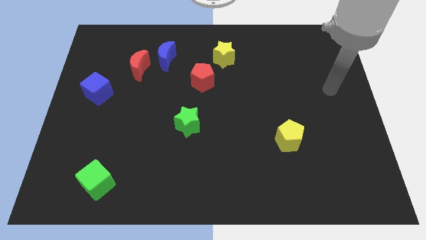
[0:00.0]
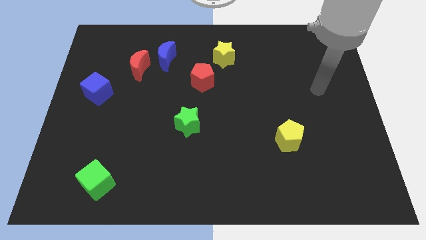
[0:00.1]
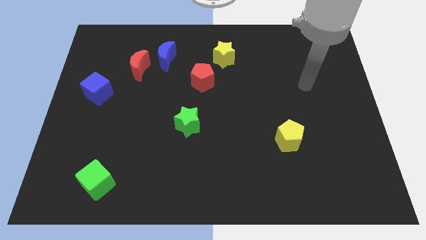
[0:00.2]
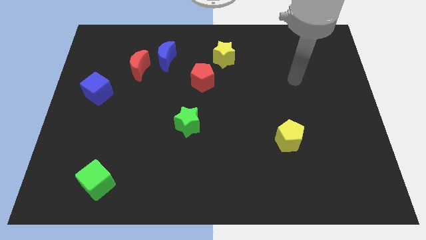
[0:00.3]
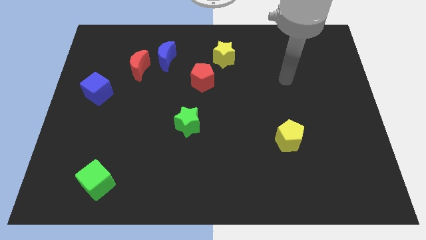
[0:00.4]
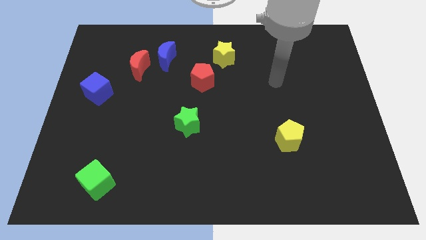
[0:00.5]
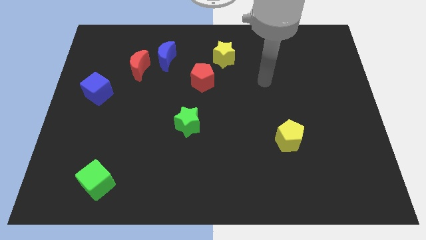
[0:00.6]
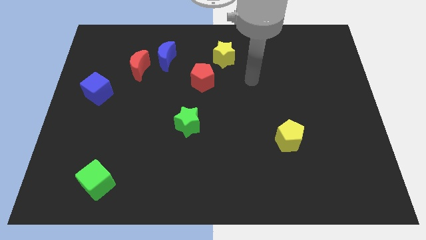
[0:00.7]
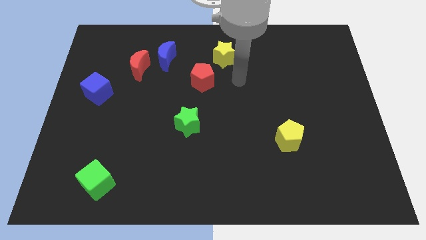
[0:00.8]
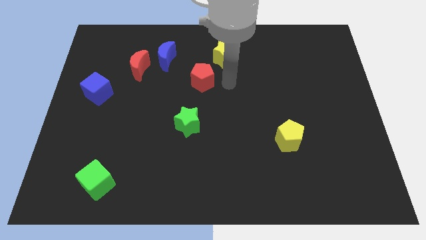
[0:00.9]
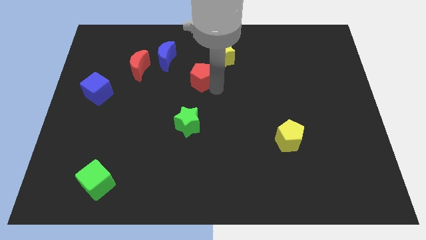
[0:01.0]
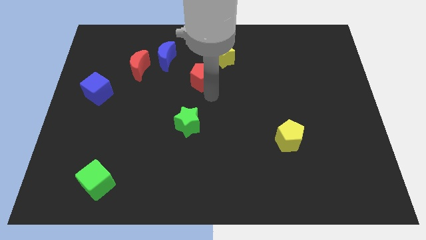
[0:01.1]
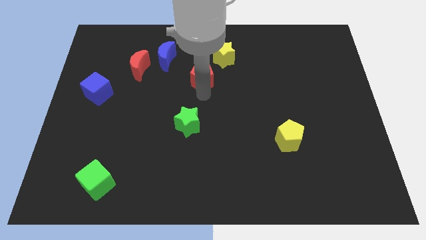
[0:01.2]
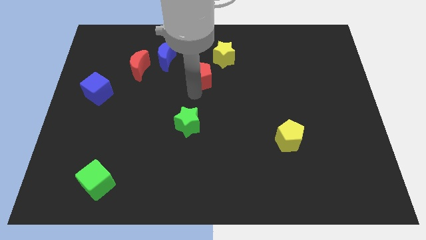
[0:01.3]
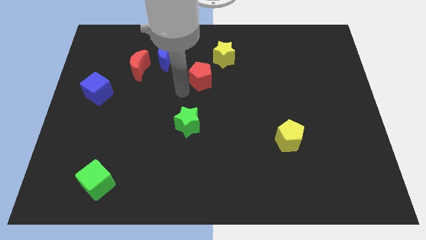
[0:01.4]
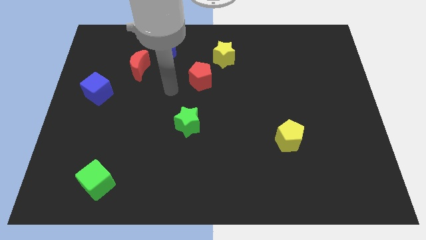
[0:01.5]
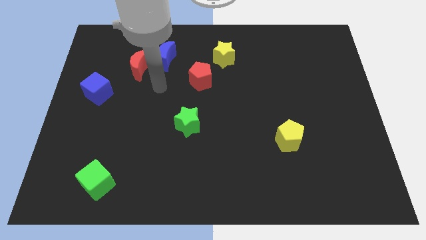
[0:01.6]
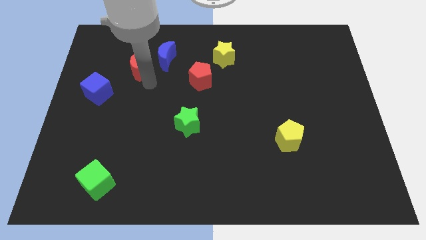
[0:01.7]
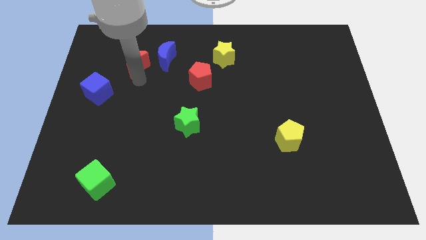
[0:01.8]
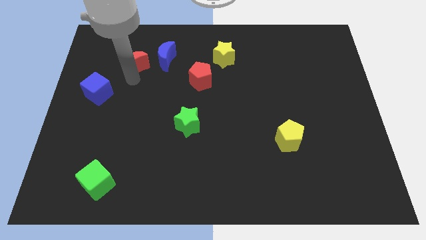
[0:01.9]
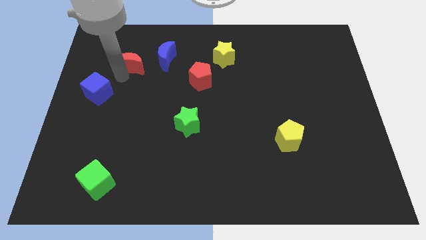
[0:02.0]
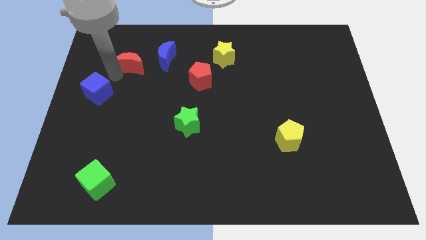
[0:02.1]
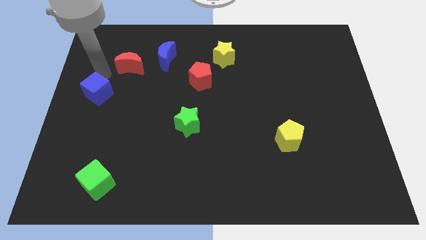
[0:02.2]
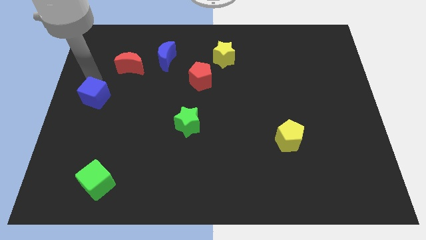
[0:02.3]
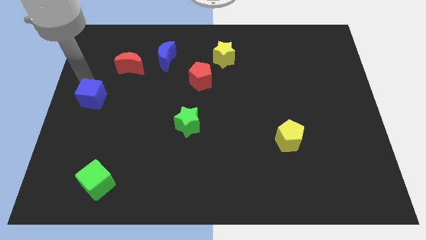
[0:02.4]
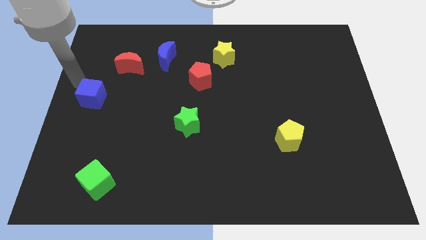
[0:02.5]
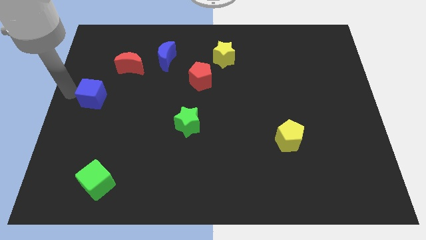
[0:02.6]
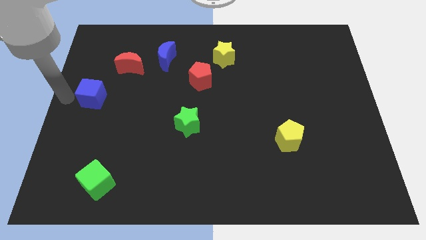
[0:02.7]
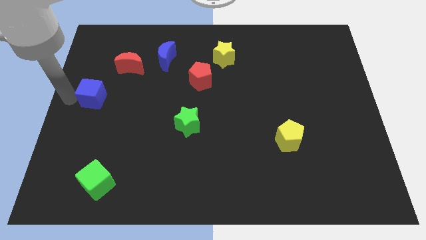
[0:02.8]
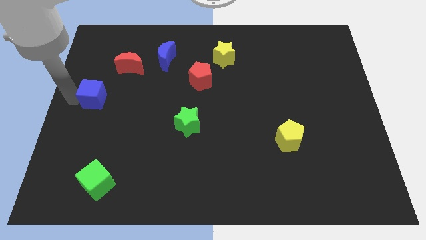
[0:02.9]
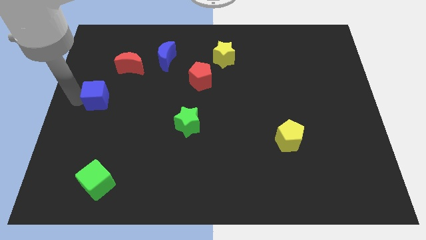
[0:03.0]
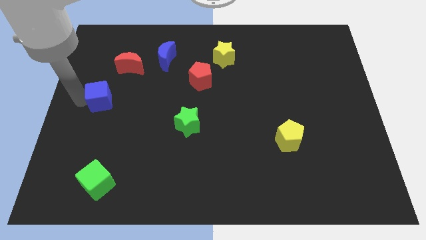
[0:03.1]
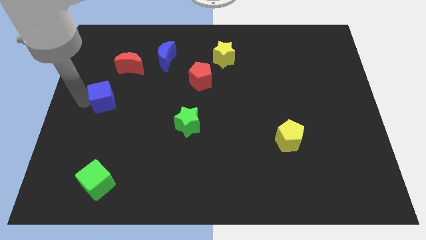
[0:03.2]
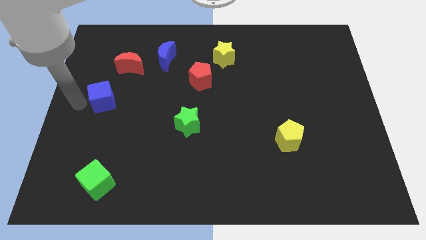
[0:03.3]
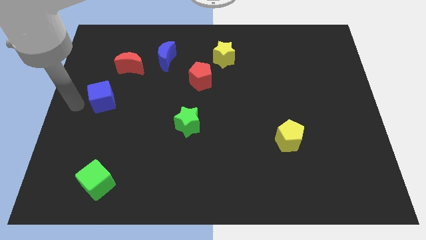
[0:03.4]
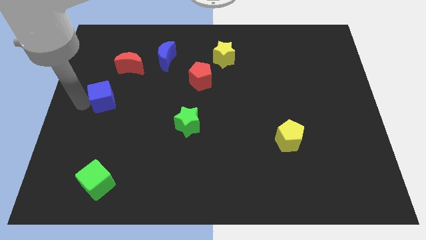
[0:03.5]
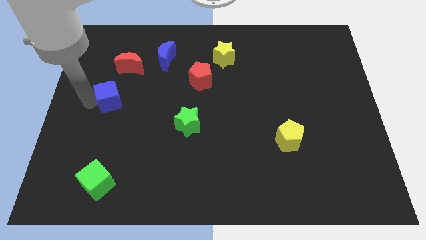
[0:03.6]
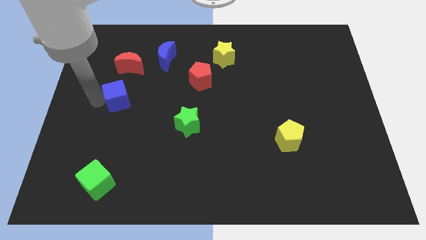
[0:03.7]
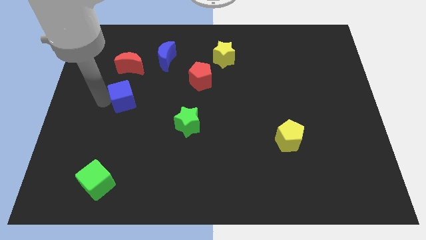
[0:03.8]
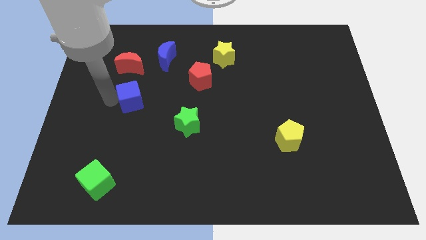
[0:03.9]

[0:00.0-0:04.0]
slightly push the blue cube right

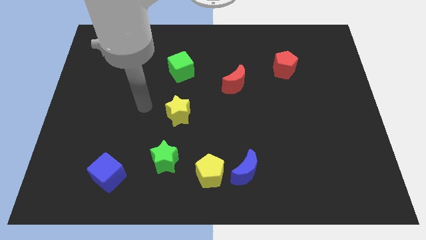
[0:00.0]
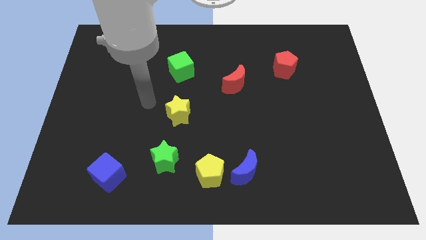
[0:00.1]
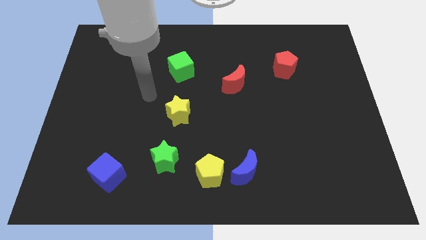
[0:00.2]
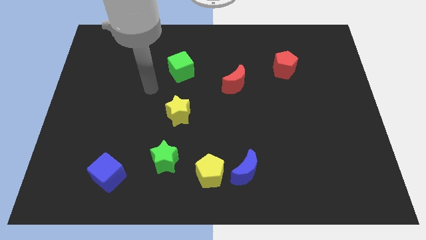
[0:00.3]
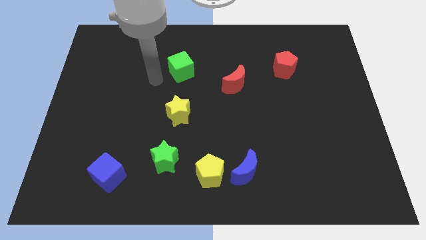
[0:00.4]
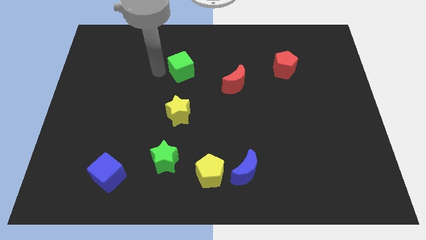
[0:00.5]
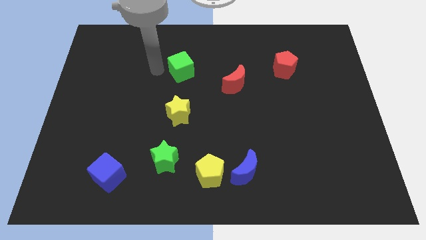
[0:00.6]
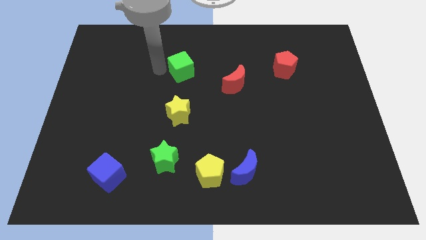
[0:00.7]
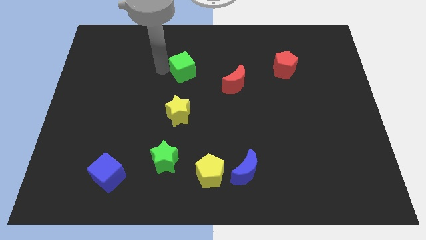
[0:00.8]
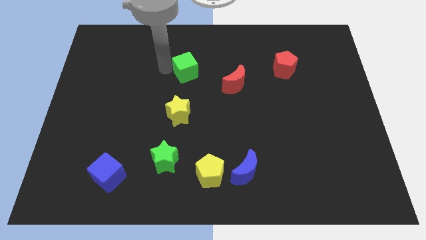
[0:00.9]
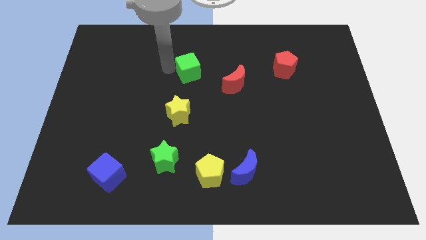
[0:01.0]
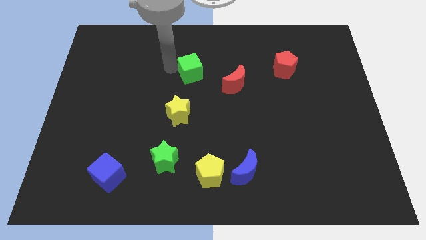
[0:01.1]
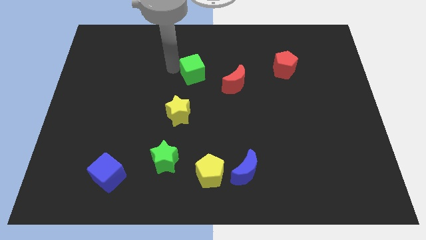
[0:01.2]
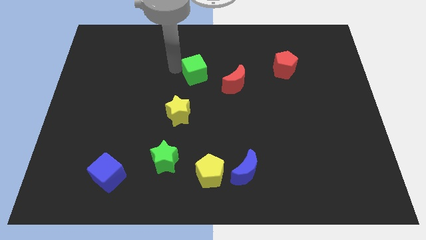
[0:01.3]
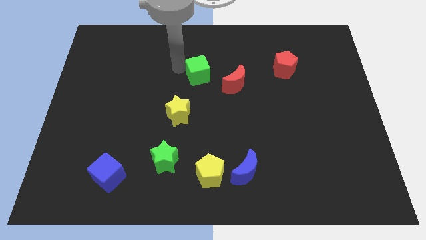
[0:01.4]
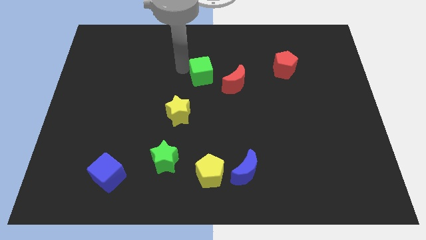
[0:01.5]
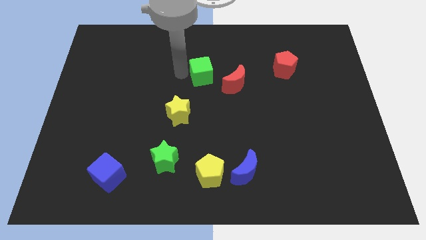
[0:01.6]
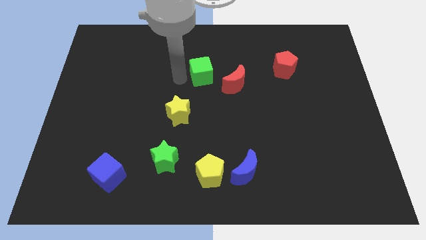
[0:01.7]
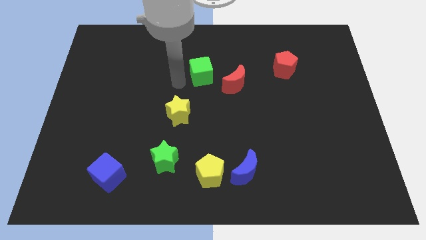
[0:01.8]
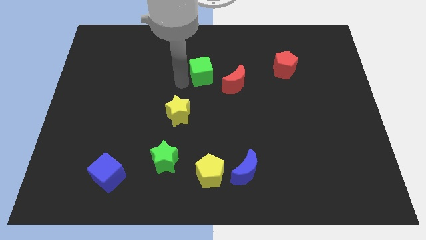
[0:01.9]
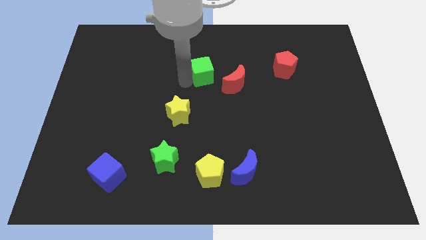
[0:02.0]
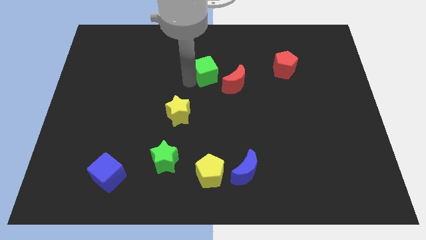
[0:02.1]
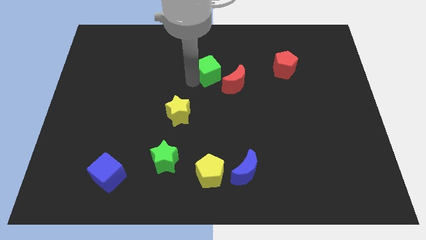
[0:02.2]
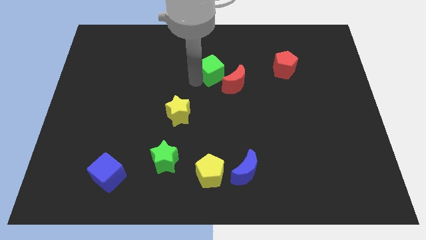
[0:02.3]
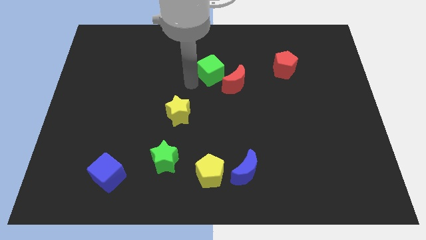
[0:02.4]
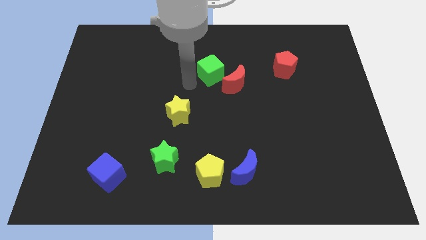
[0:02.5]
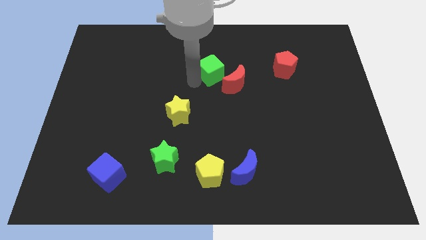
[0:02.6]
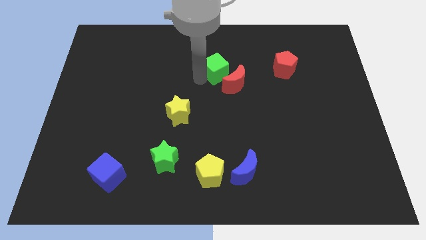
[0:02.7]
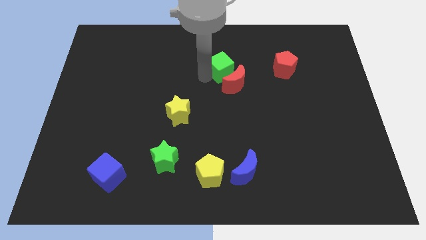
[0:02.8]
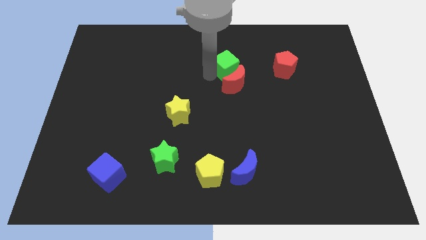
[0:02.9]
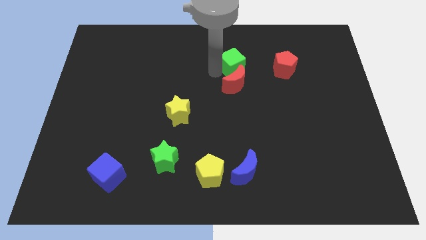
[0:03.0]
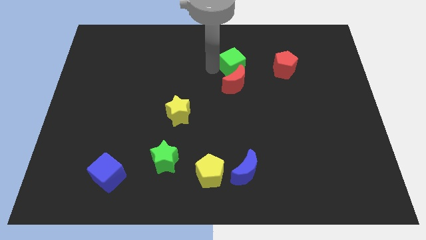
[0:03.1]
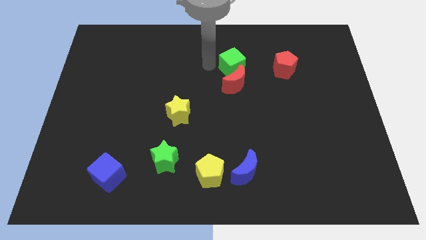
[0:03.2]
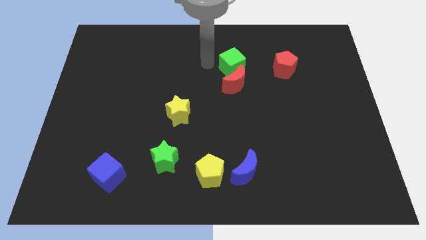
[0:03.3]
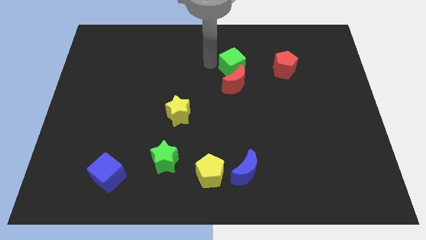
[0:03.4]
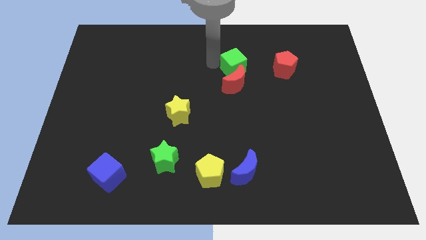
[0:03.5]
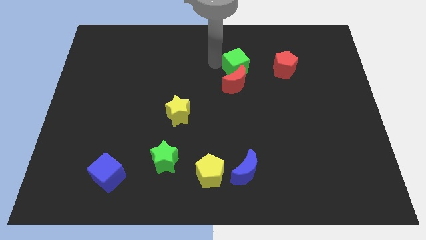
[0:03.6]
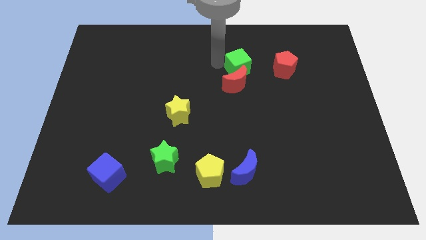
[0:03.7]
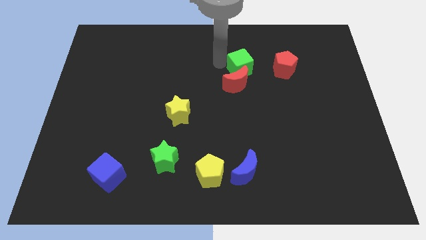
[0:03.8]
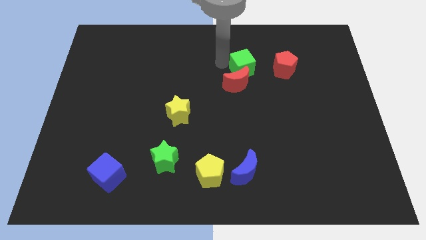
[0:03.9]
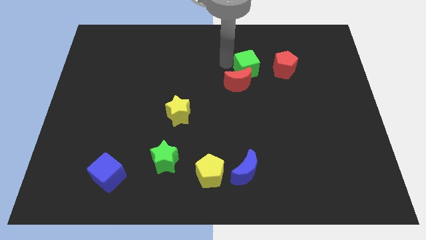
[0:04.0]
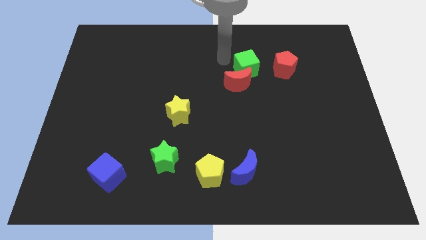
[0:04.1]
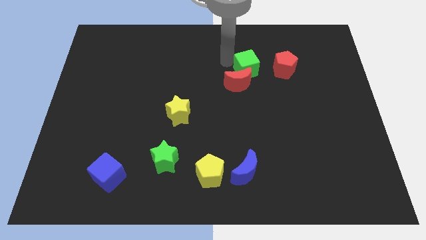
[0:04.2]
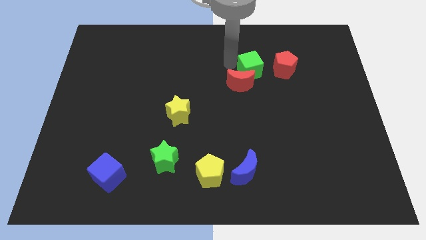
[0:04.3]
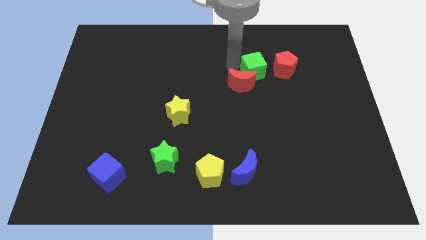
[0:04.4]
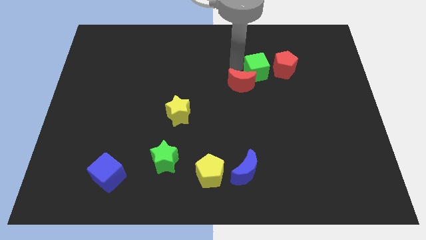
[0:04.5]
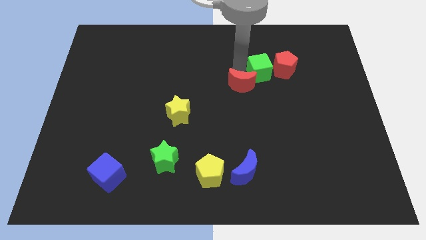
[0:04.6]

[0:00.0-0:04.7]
push the green cube to the right
